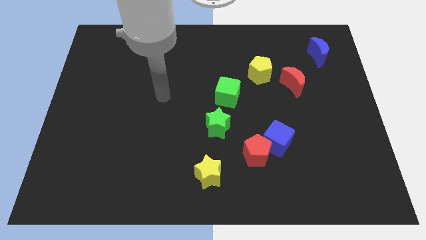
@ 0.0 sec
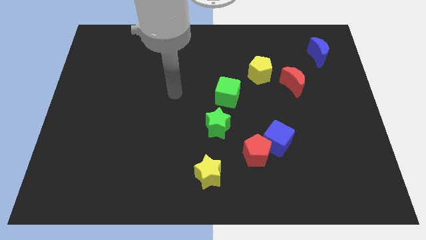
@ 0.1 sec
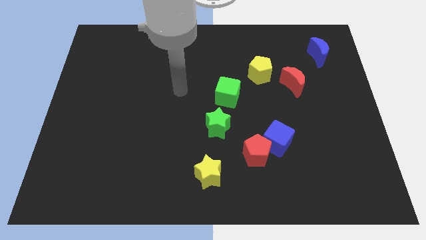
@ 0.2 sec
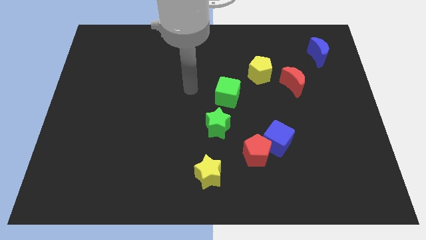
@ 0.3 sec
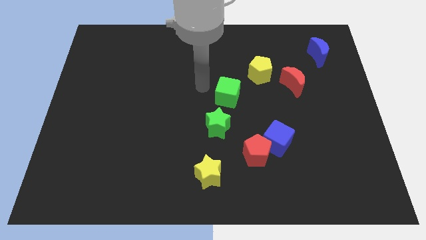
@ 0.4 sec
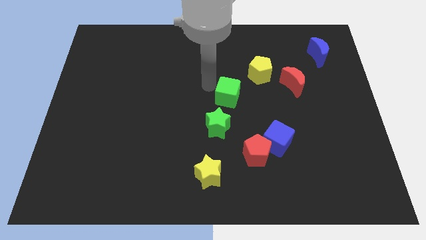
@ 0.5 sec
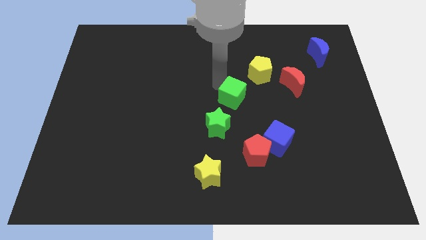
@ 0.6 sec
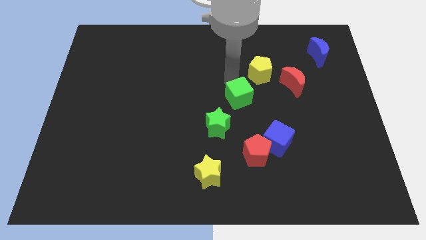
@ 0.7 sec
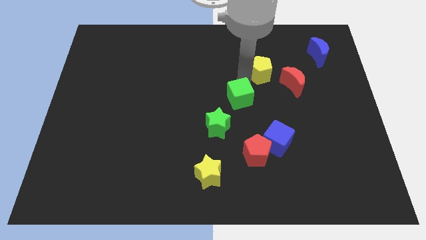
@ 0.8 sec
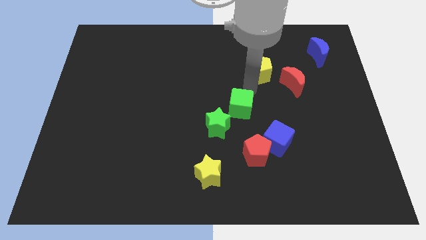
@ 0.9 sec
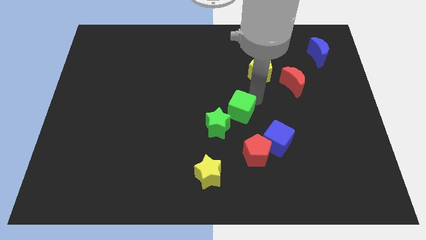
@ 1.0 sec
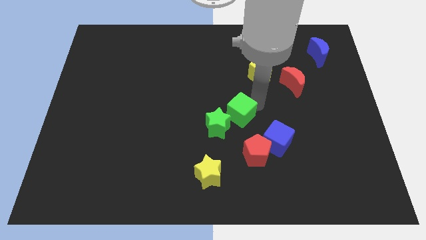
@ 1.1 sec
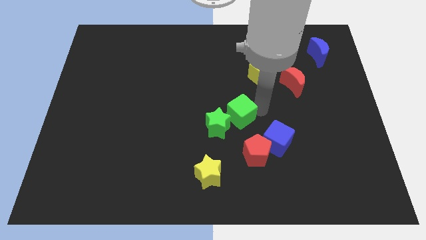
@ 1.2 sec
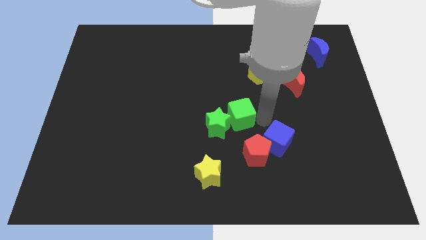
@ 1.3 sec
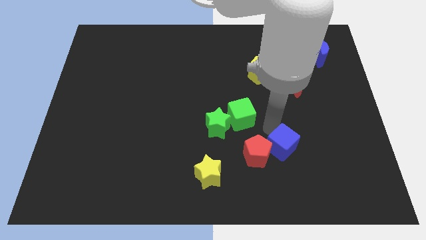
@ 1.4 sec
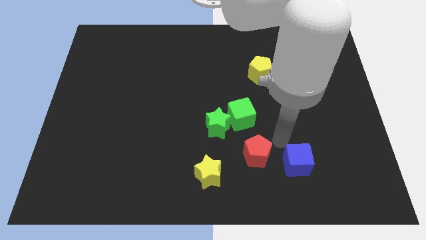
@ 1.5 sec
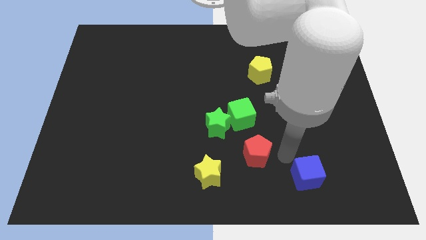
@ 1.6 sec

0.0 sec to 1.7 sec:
pull the red pentagon apart from the blue cube

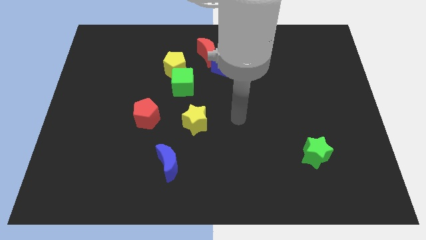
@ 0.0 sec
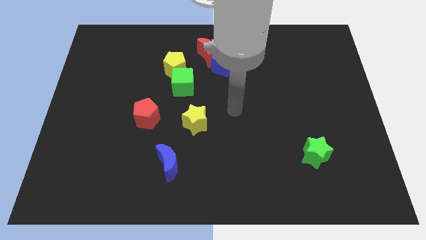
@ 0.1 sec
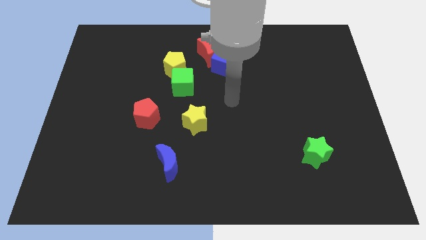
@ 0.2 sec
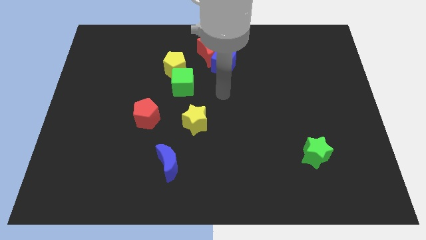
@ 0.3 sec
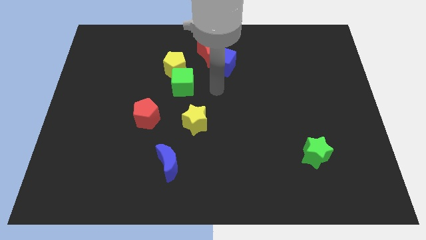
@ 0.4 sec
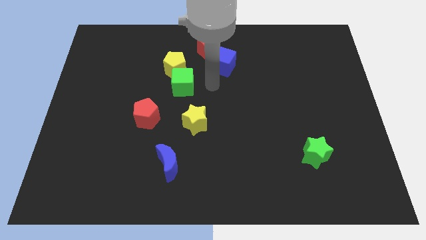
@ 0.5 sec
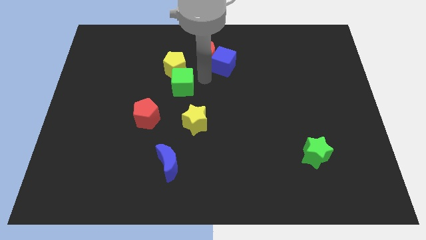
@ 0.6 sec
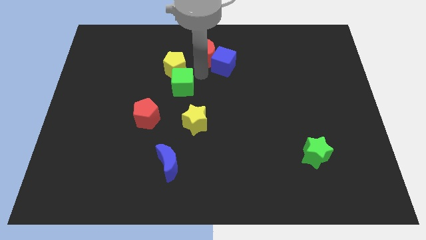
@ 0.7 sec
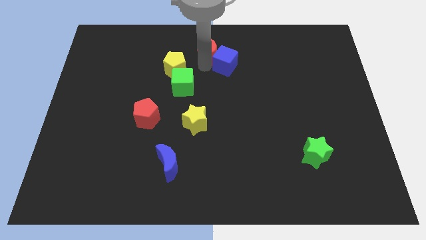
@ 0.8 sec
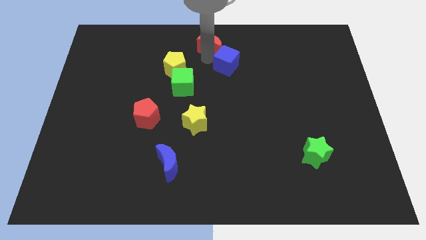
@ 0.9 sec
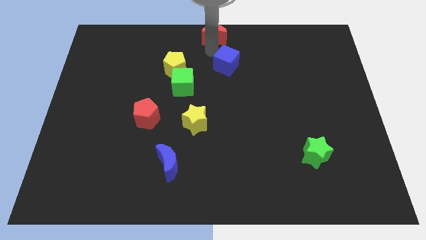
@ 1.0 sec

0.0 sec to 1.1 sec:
pull the blue cube apart from the red moon

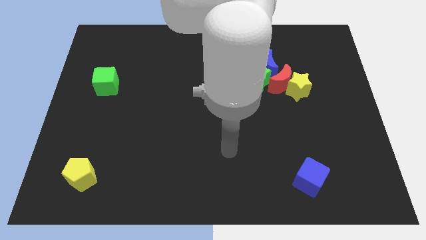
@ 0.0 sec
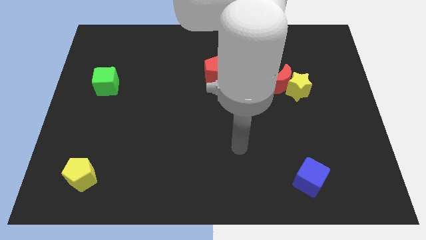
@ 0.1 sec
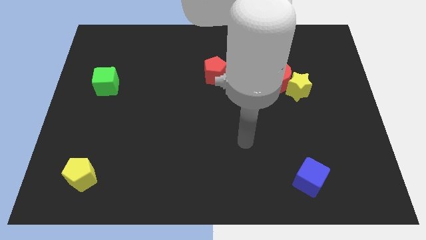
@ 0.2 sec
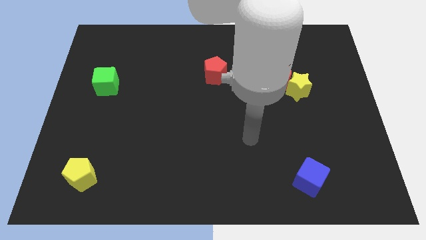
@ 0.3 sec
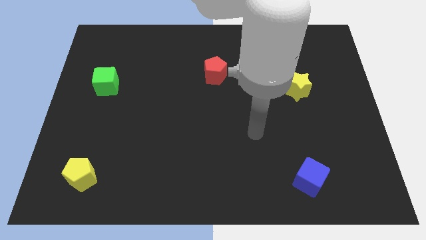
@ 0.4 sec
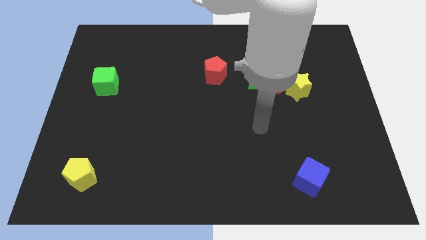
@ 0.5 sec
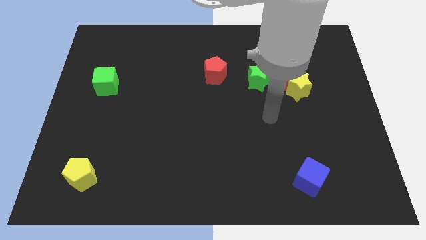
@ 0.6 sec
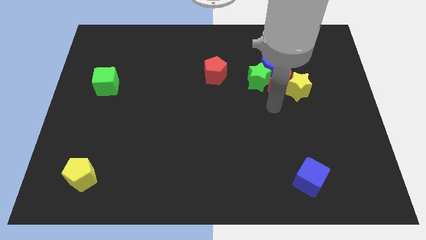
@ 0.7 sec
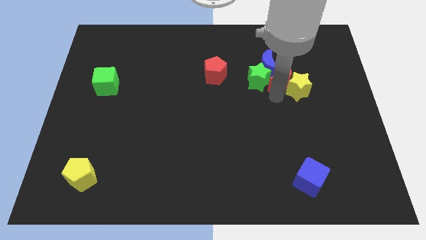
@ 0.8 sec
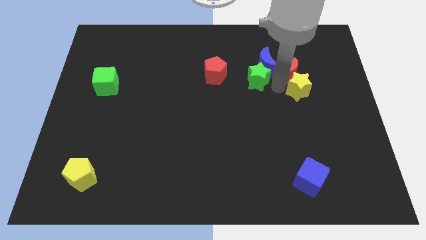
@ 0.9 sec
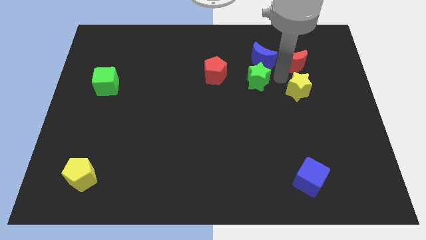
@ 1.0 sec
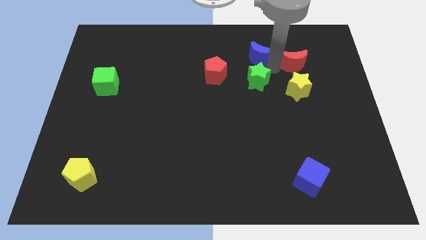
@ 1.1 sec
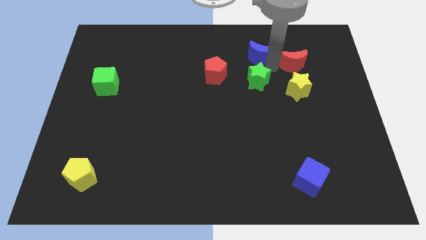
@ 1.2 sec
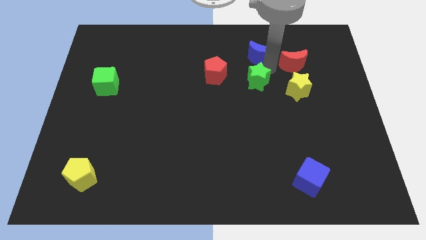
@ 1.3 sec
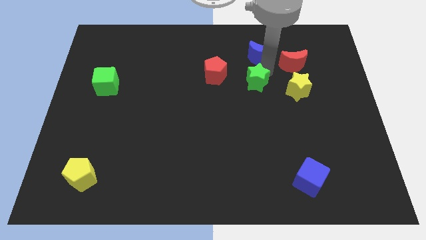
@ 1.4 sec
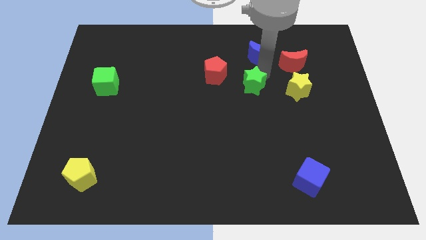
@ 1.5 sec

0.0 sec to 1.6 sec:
separate the green star from the blue moon and red moon

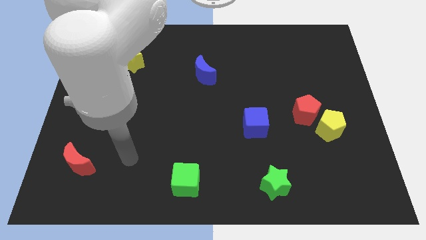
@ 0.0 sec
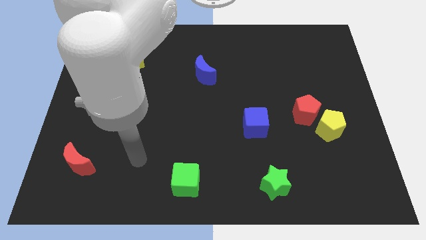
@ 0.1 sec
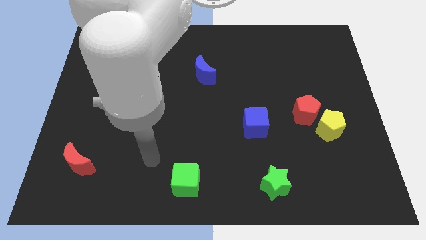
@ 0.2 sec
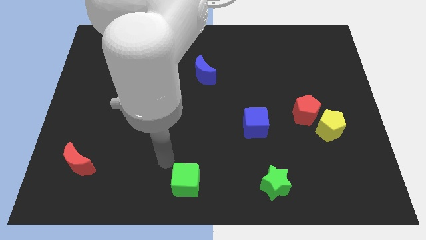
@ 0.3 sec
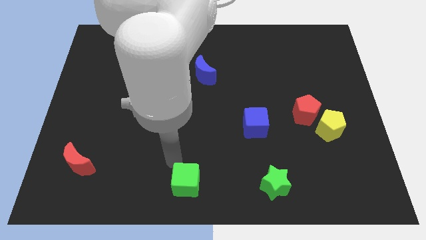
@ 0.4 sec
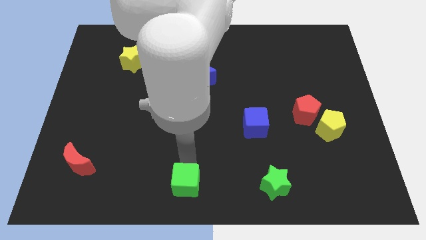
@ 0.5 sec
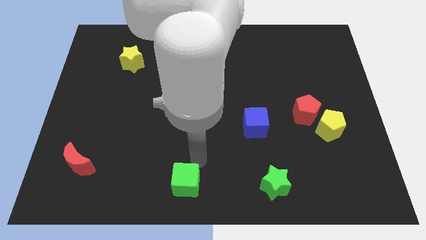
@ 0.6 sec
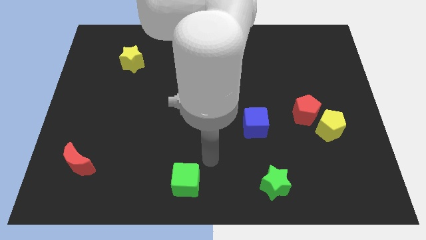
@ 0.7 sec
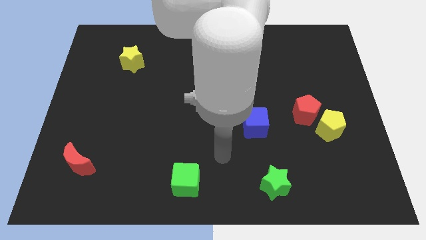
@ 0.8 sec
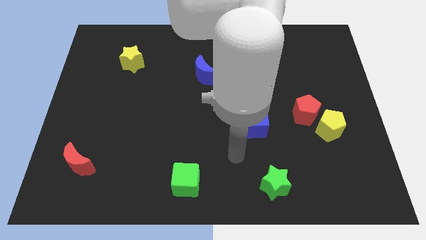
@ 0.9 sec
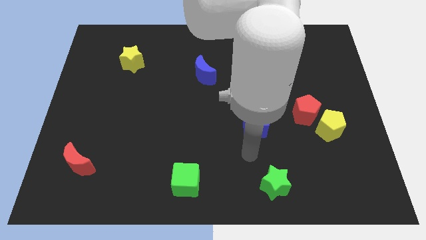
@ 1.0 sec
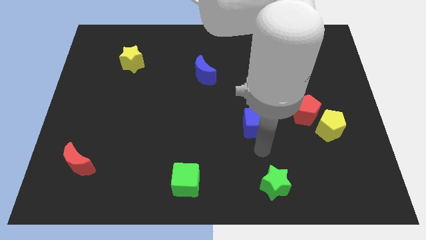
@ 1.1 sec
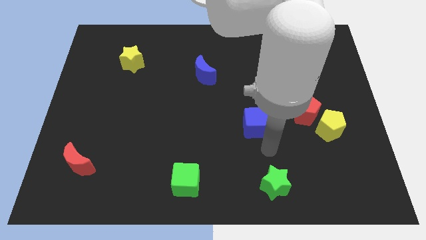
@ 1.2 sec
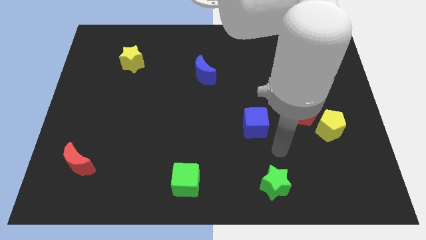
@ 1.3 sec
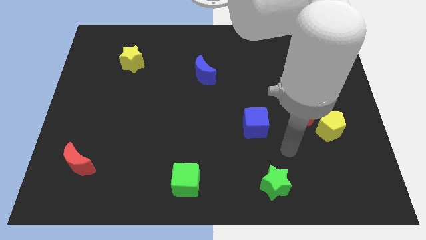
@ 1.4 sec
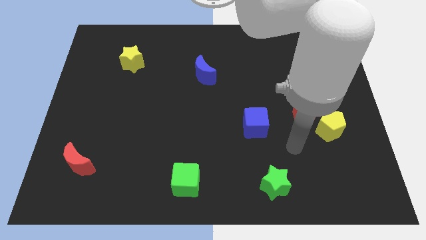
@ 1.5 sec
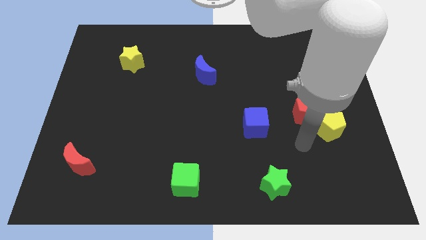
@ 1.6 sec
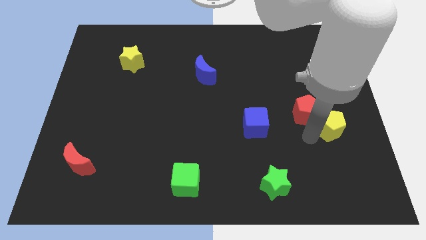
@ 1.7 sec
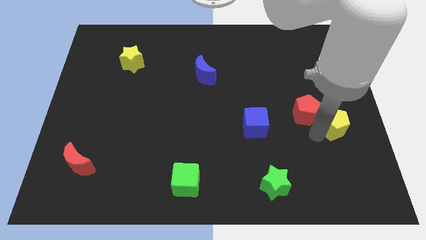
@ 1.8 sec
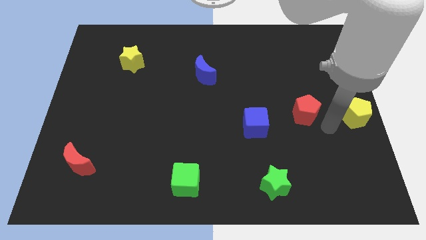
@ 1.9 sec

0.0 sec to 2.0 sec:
pull the red pentagon apart from the yellow pentagon

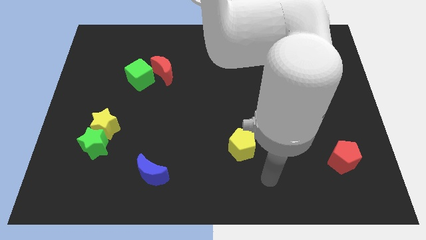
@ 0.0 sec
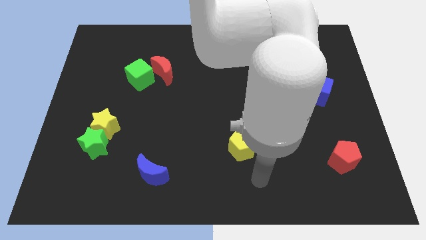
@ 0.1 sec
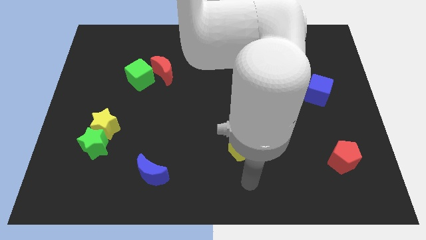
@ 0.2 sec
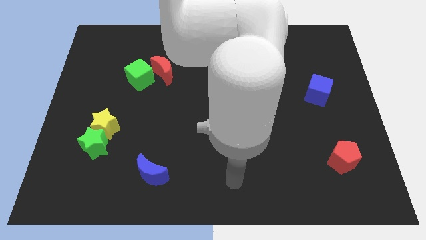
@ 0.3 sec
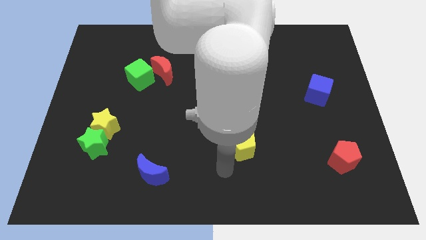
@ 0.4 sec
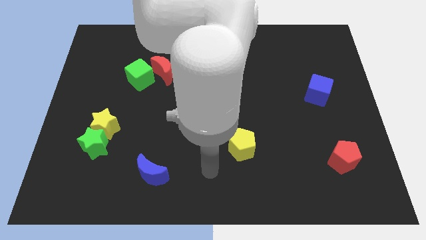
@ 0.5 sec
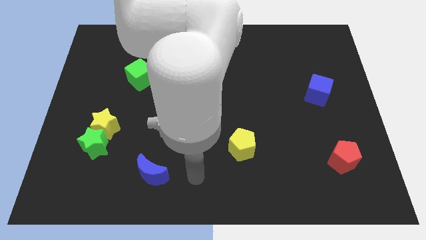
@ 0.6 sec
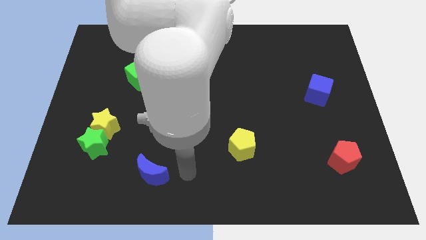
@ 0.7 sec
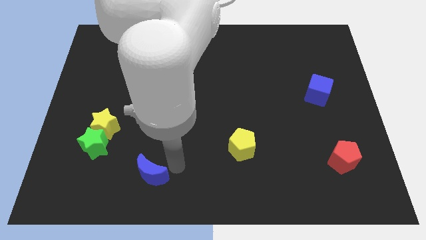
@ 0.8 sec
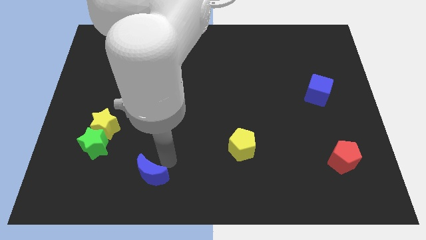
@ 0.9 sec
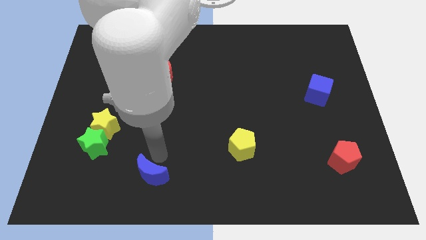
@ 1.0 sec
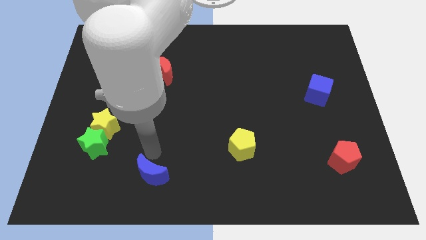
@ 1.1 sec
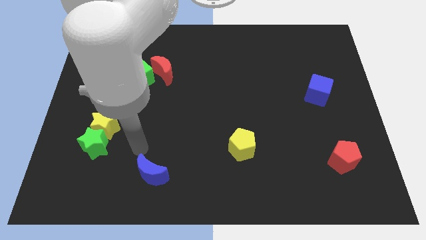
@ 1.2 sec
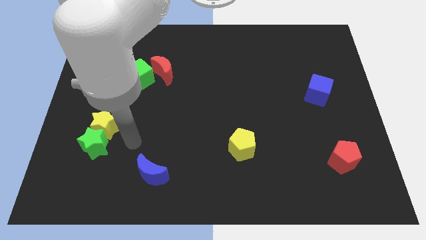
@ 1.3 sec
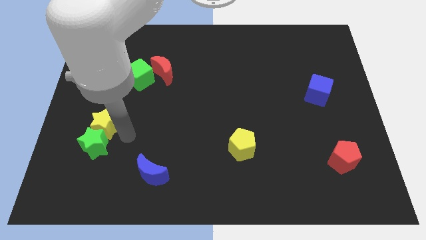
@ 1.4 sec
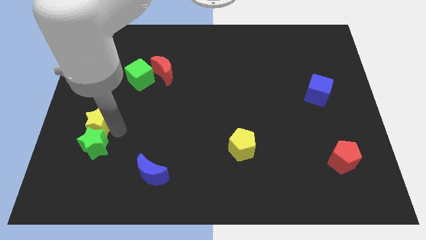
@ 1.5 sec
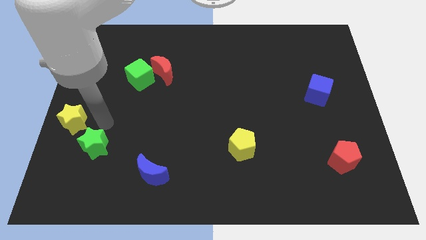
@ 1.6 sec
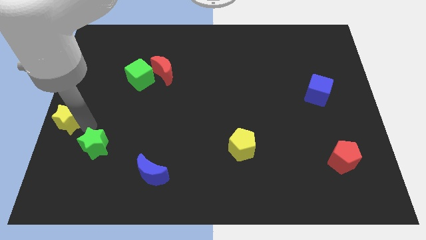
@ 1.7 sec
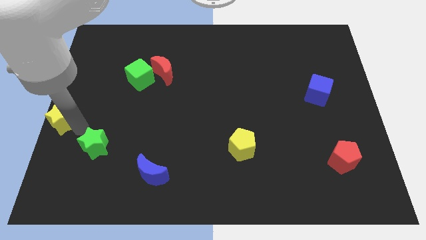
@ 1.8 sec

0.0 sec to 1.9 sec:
move the green star away from the yellow star

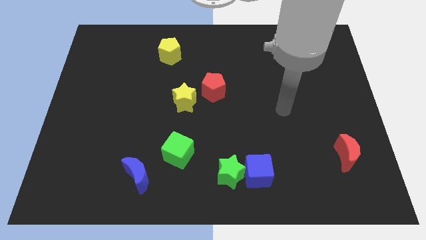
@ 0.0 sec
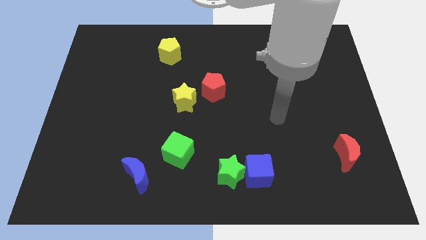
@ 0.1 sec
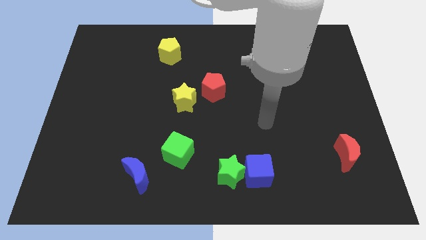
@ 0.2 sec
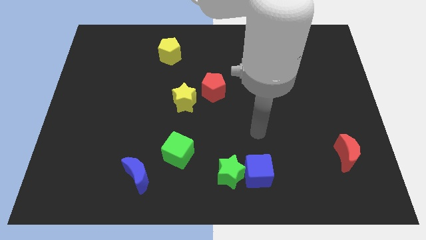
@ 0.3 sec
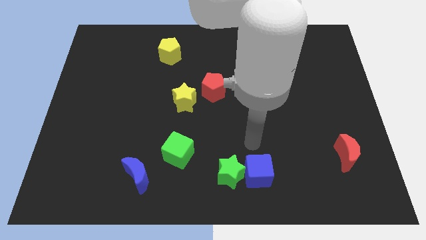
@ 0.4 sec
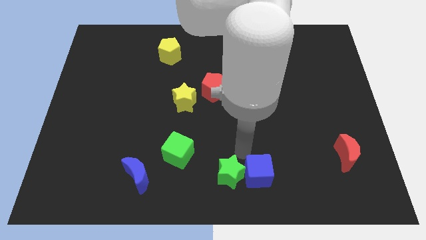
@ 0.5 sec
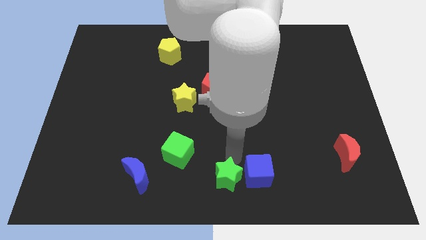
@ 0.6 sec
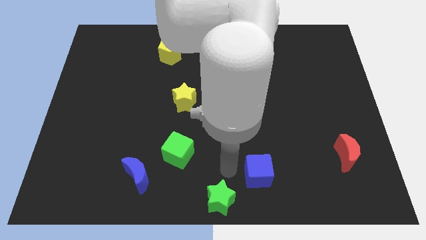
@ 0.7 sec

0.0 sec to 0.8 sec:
separate the blue cube from the green star

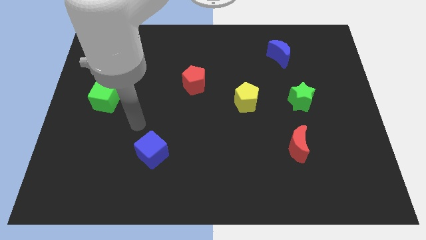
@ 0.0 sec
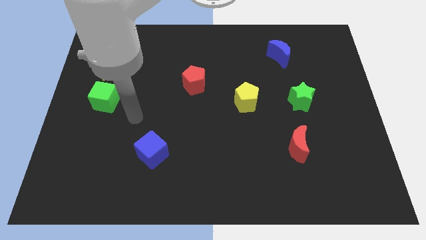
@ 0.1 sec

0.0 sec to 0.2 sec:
pull the green cube apart from the yellow star
